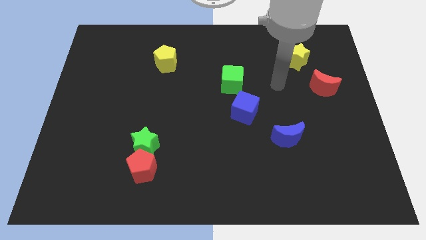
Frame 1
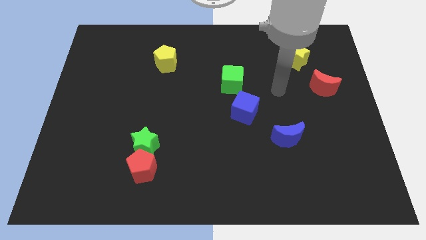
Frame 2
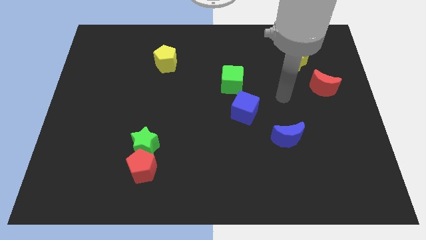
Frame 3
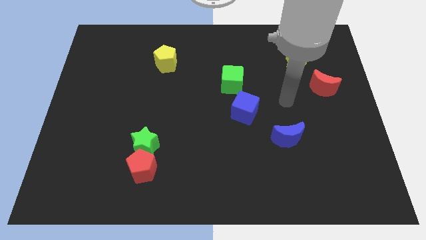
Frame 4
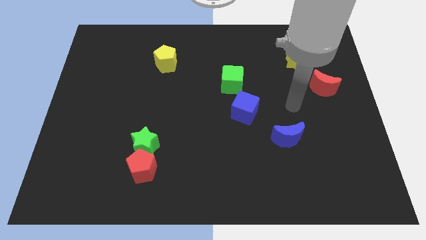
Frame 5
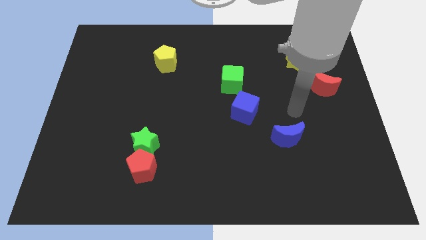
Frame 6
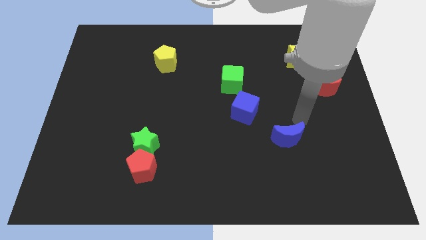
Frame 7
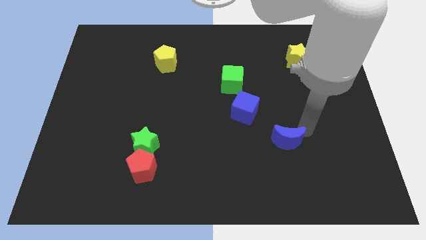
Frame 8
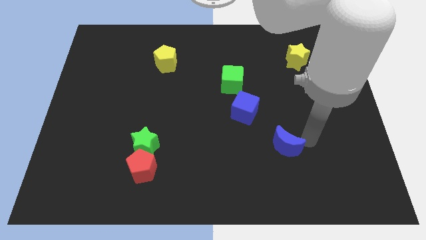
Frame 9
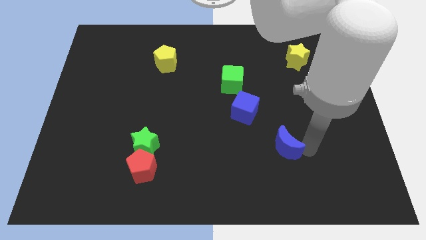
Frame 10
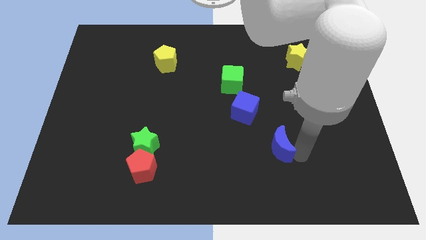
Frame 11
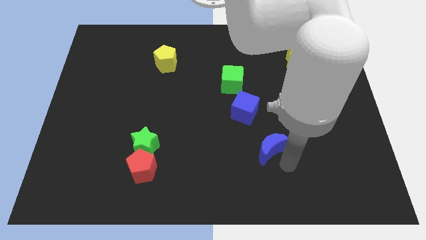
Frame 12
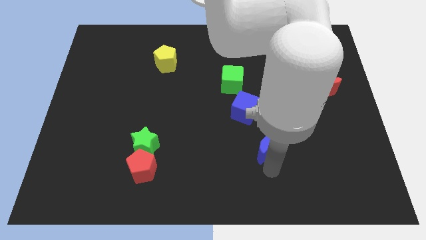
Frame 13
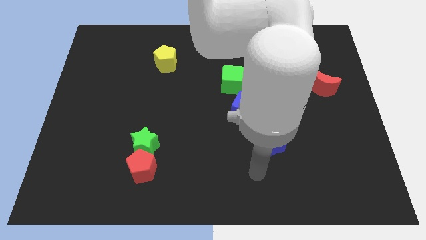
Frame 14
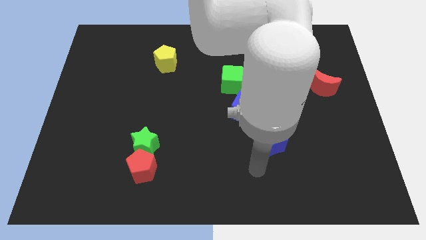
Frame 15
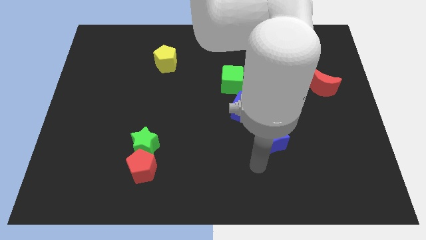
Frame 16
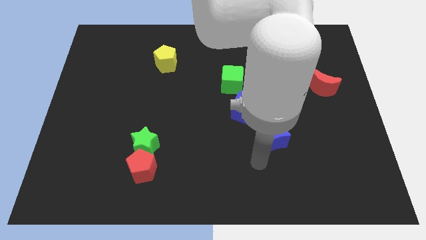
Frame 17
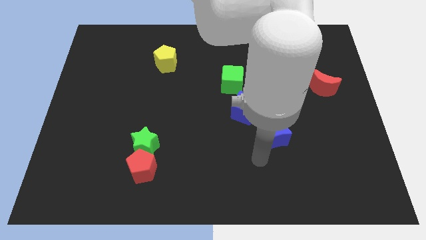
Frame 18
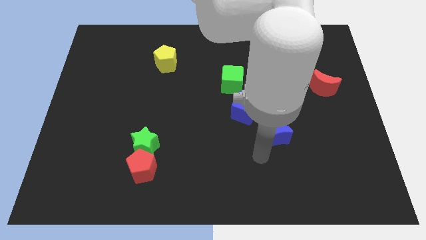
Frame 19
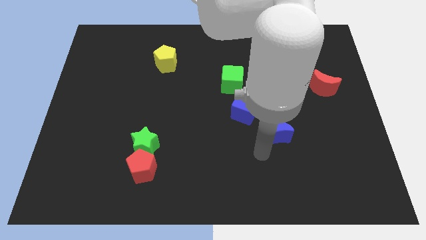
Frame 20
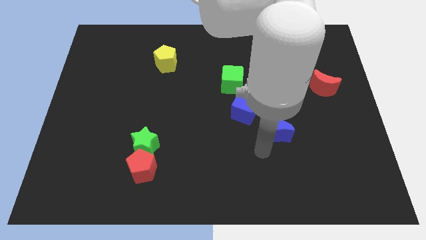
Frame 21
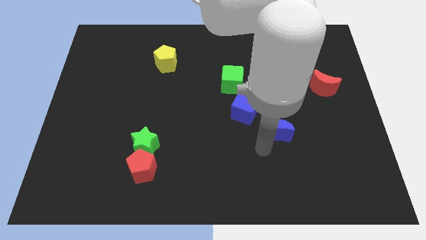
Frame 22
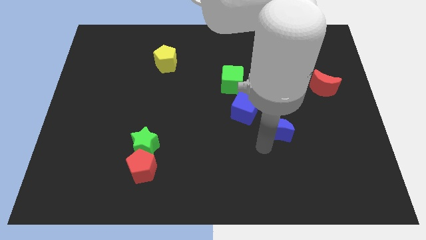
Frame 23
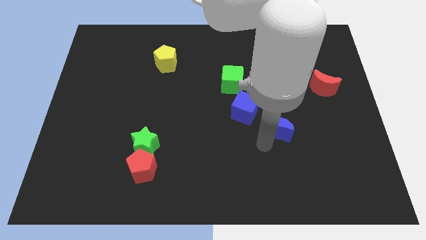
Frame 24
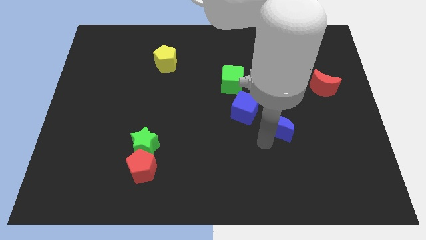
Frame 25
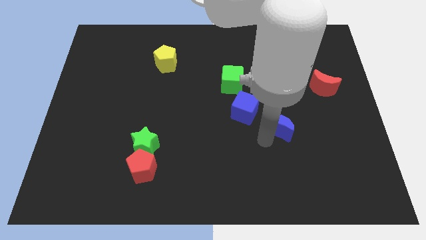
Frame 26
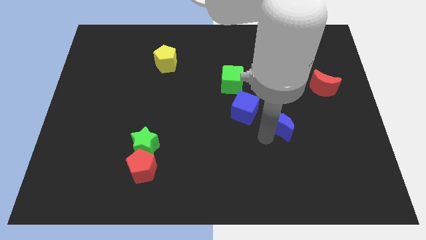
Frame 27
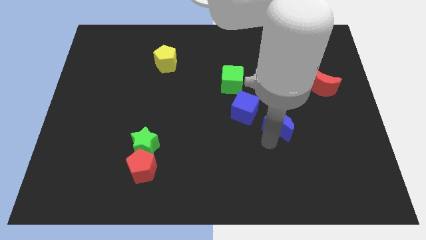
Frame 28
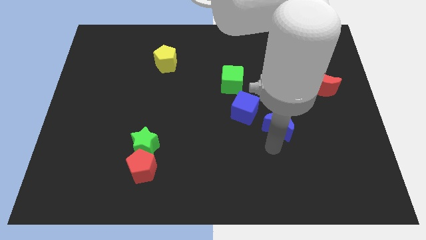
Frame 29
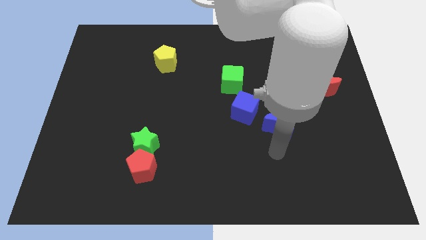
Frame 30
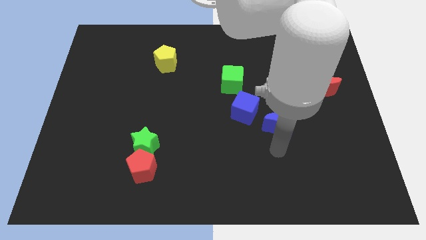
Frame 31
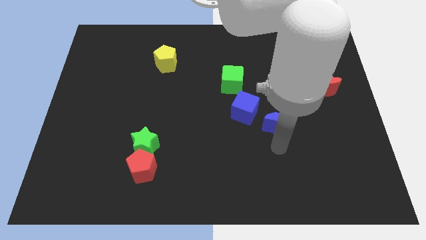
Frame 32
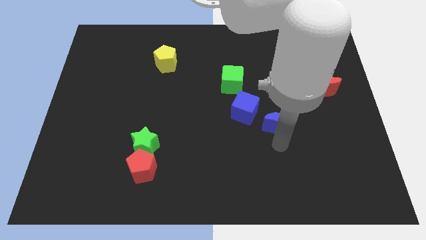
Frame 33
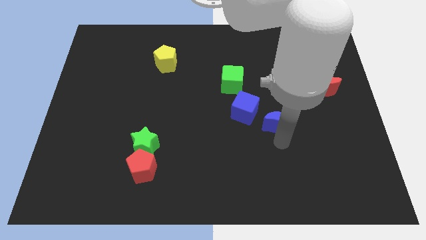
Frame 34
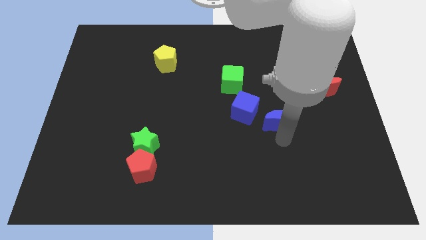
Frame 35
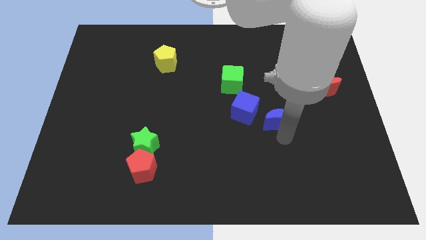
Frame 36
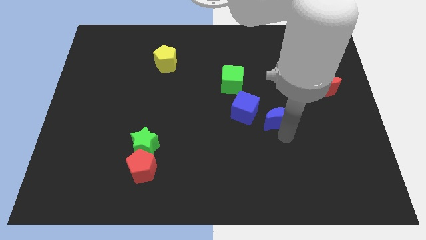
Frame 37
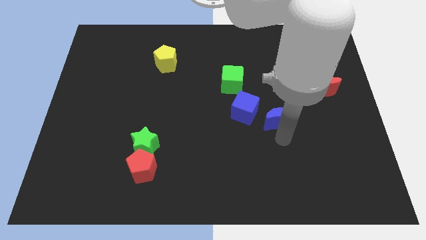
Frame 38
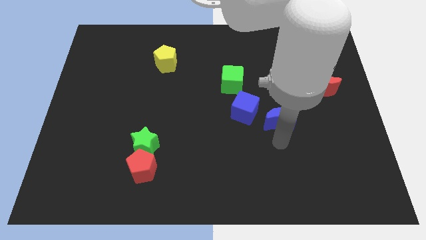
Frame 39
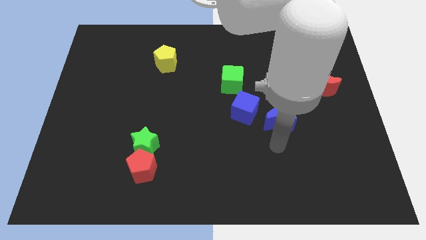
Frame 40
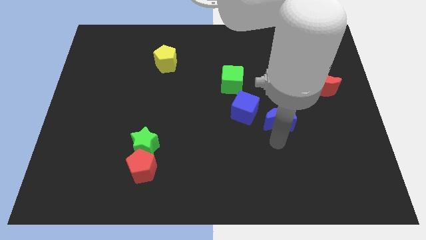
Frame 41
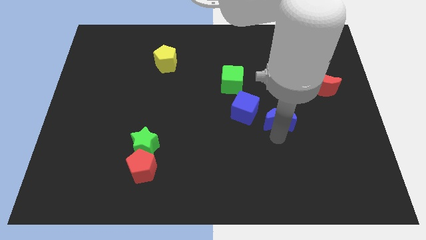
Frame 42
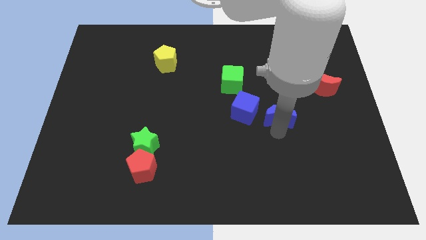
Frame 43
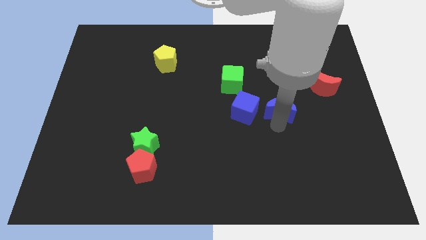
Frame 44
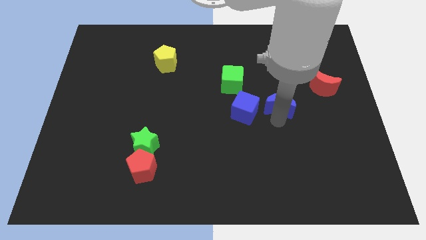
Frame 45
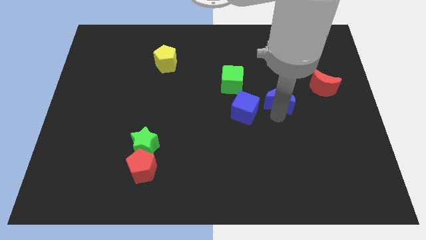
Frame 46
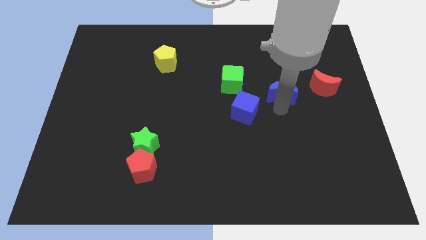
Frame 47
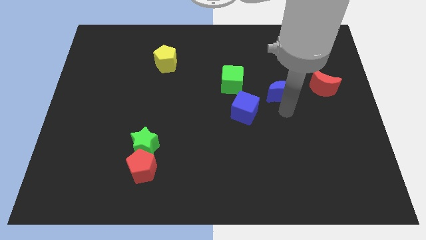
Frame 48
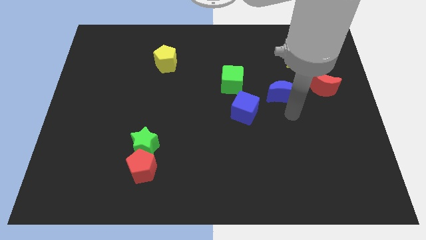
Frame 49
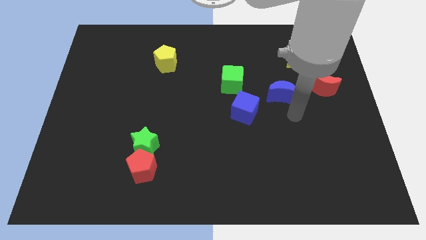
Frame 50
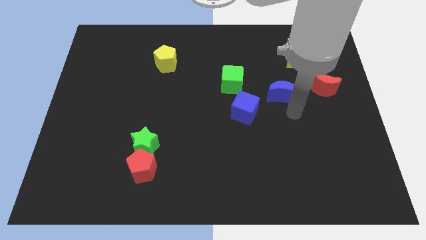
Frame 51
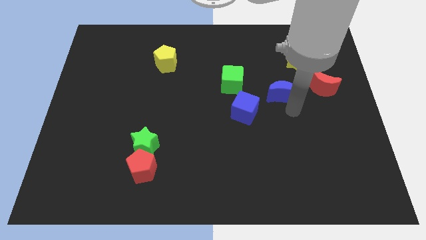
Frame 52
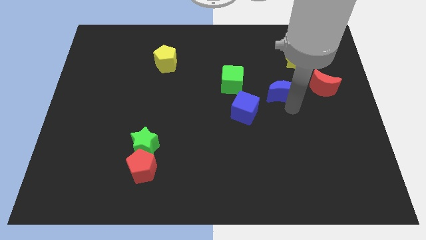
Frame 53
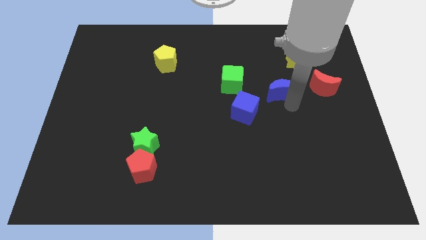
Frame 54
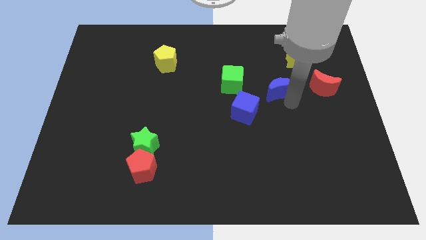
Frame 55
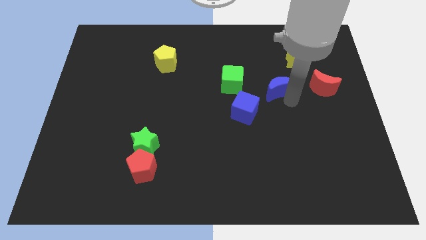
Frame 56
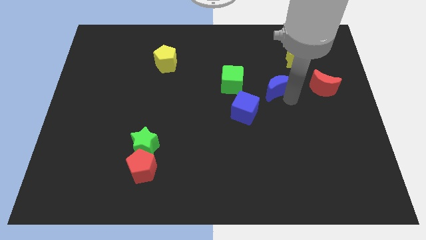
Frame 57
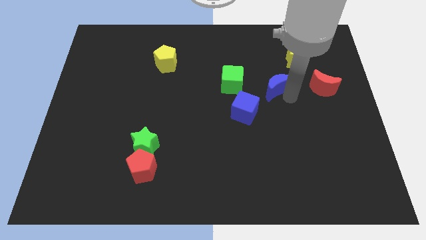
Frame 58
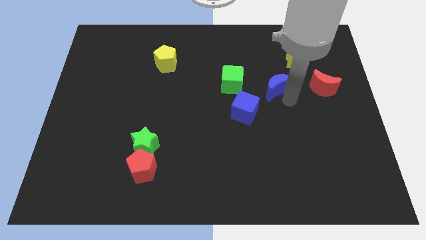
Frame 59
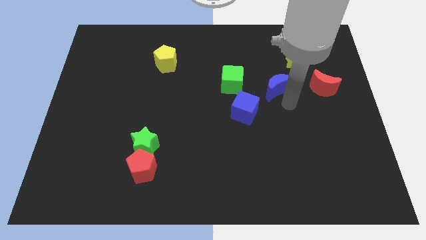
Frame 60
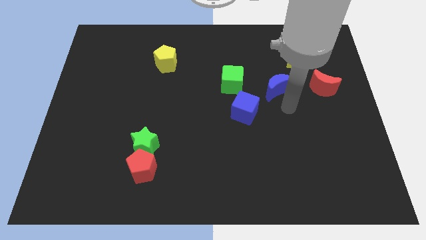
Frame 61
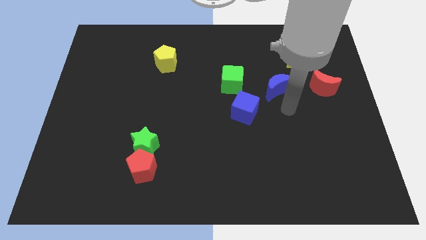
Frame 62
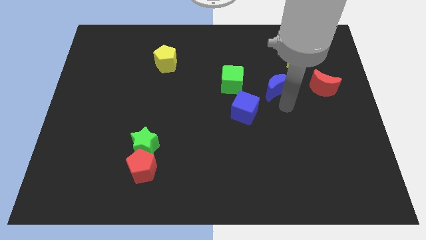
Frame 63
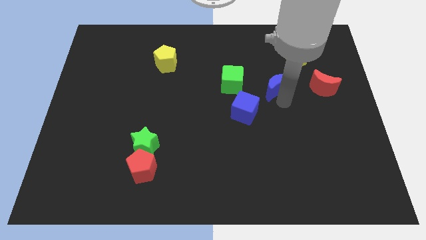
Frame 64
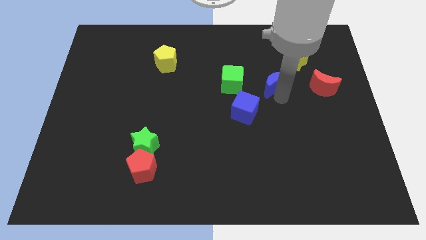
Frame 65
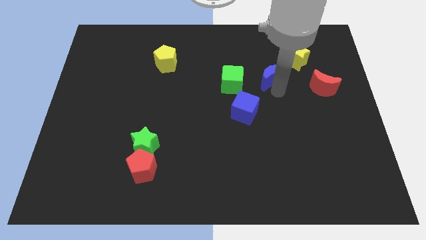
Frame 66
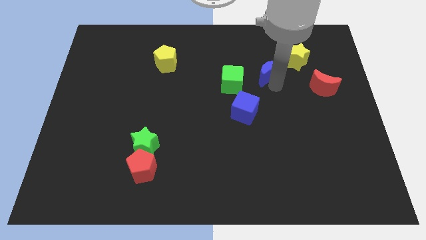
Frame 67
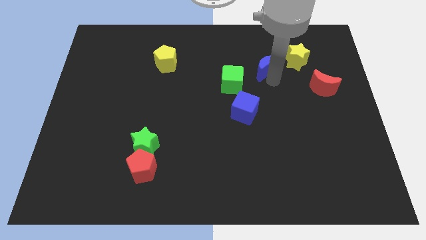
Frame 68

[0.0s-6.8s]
slide the blue moon left of the yellow star
